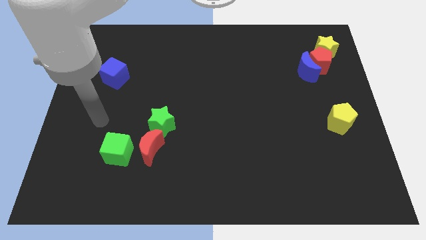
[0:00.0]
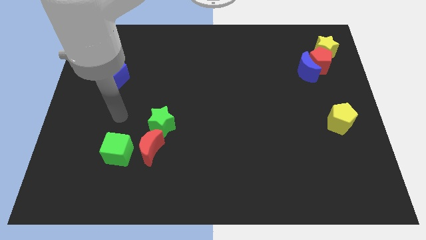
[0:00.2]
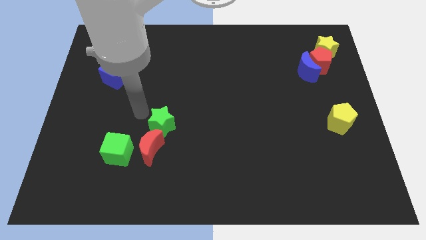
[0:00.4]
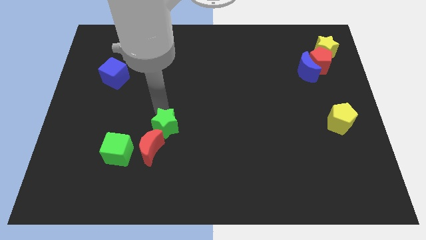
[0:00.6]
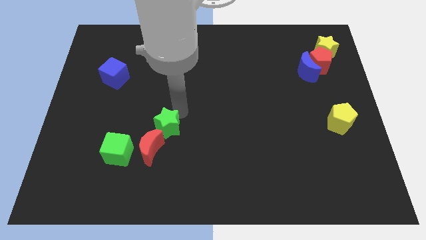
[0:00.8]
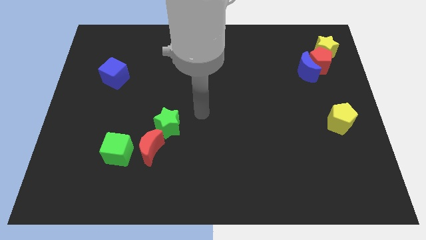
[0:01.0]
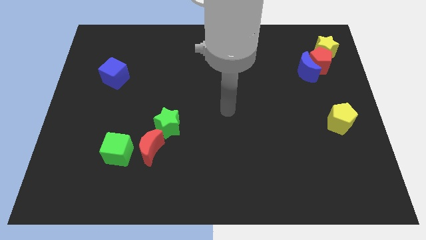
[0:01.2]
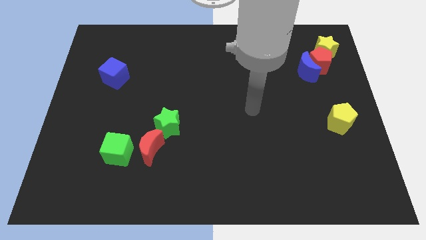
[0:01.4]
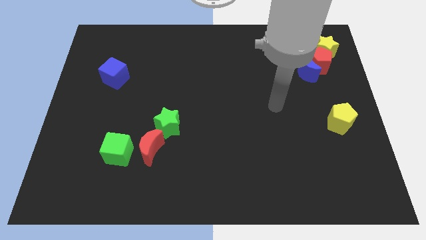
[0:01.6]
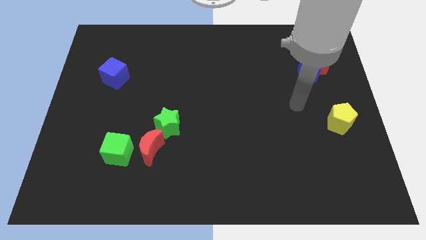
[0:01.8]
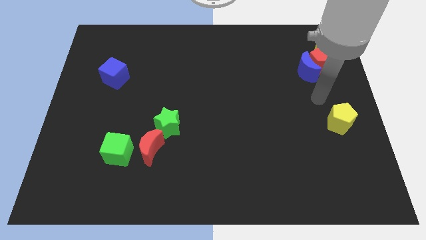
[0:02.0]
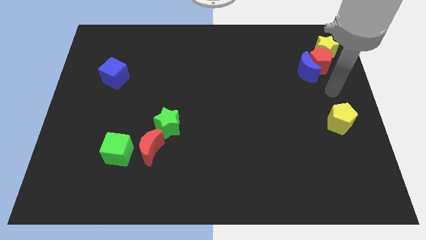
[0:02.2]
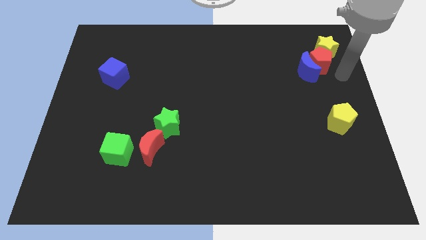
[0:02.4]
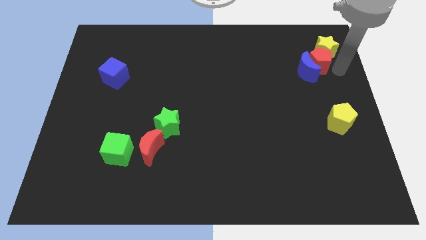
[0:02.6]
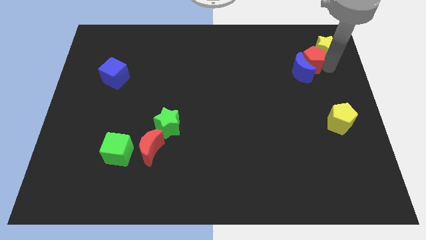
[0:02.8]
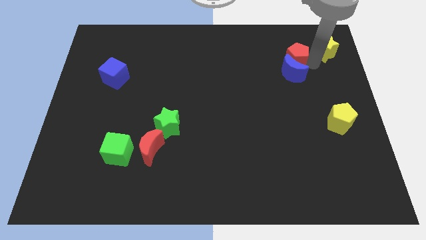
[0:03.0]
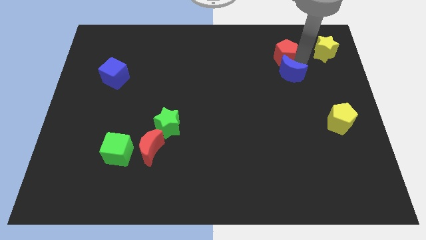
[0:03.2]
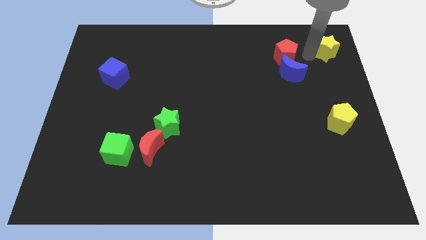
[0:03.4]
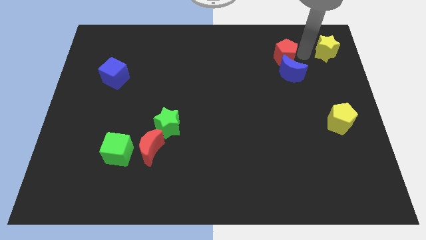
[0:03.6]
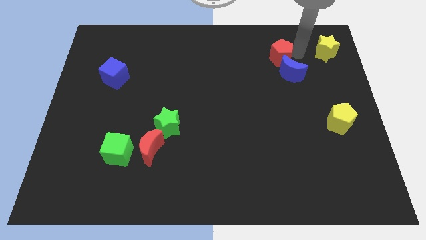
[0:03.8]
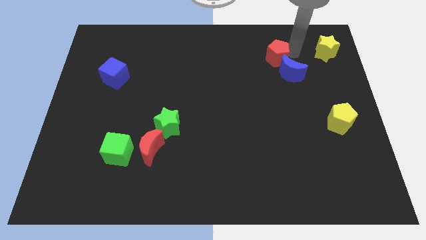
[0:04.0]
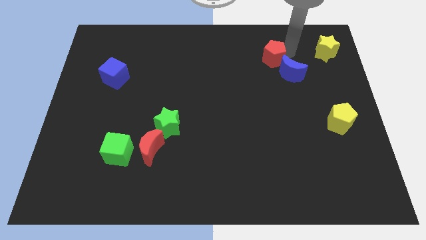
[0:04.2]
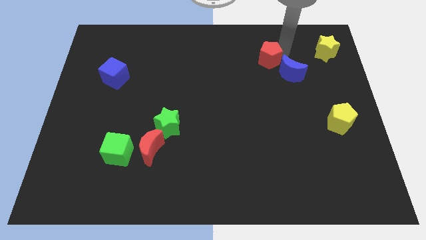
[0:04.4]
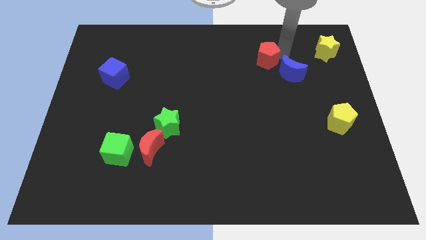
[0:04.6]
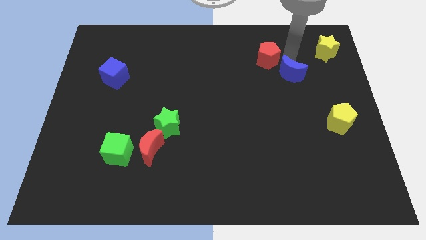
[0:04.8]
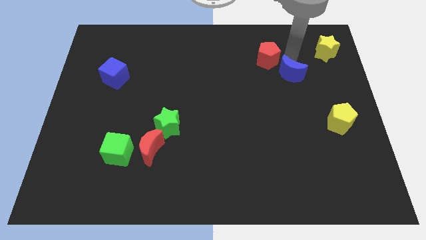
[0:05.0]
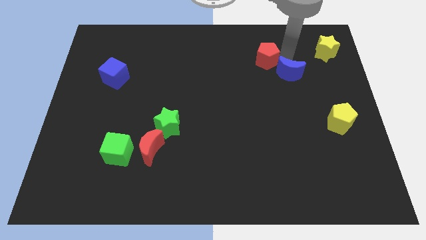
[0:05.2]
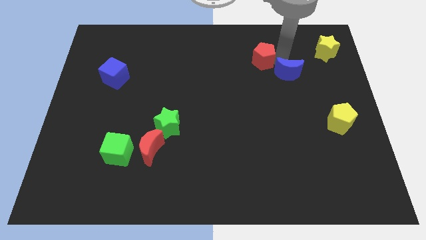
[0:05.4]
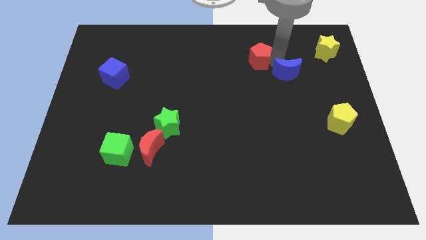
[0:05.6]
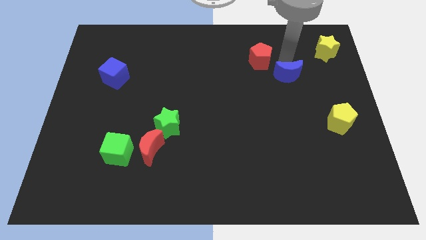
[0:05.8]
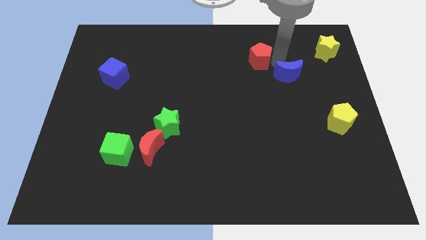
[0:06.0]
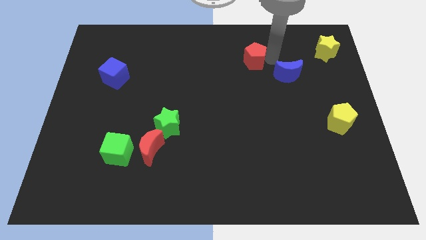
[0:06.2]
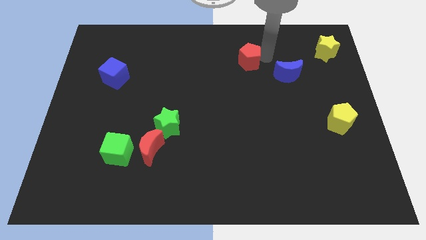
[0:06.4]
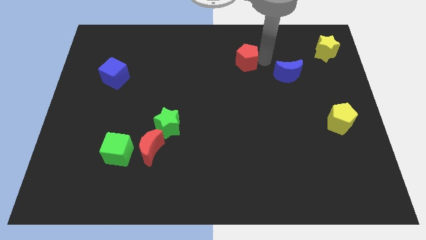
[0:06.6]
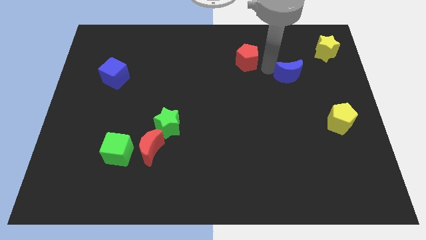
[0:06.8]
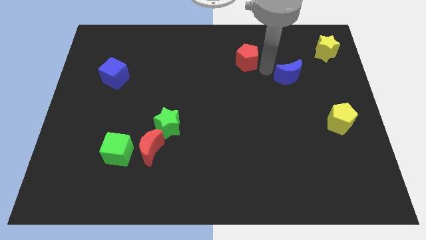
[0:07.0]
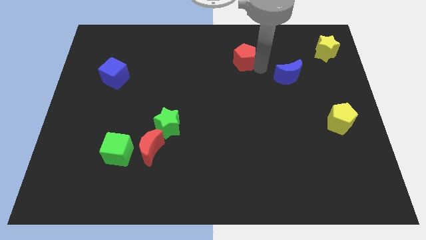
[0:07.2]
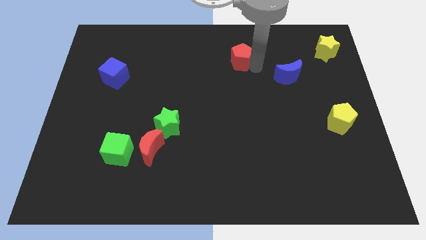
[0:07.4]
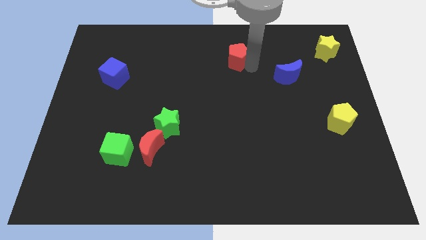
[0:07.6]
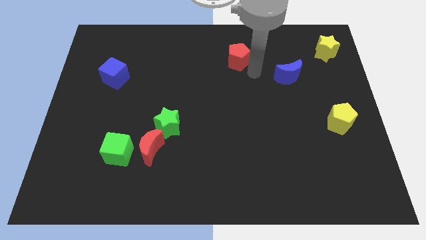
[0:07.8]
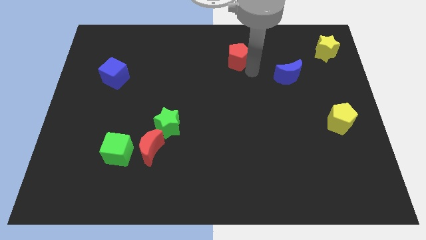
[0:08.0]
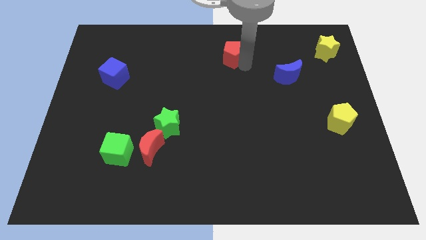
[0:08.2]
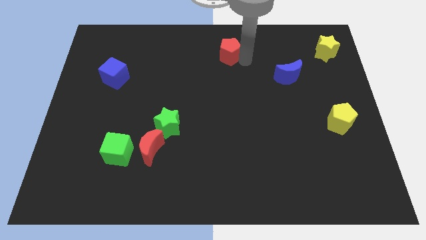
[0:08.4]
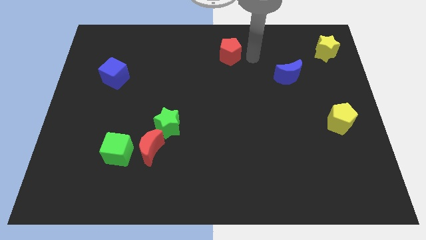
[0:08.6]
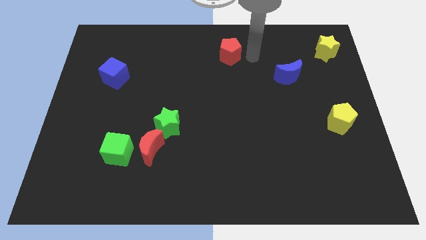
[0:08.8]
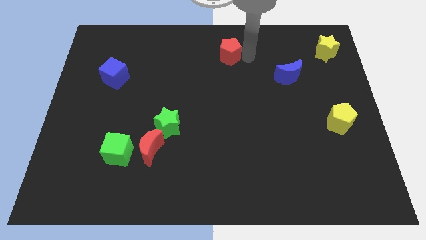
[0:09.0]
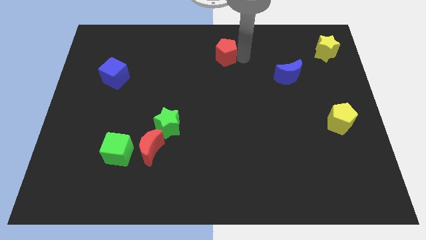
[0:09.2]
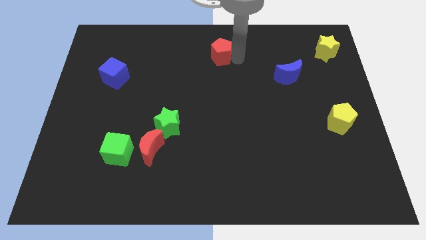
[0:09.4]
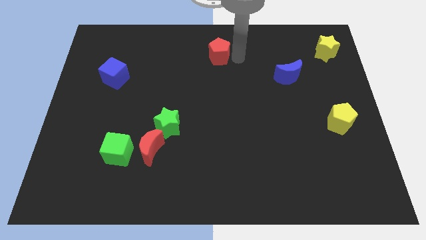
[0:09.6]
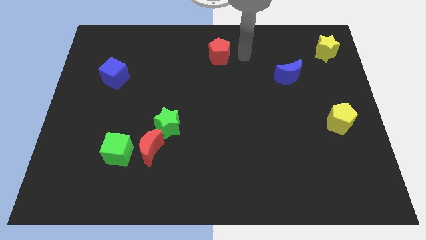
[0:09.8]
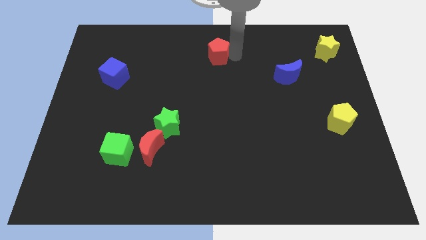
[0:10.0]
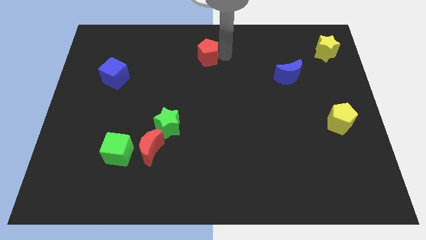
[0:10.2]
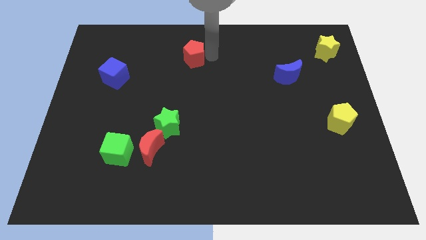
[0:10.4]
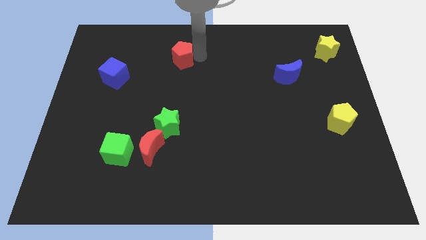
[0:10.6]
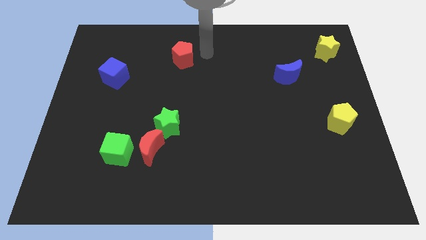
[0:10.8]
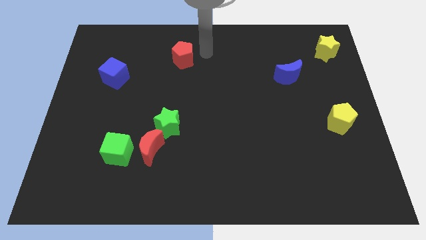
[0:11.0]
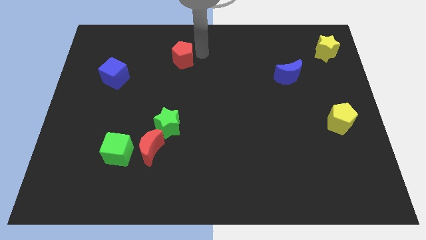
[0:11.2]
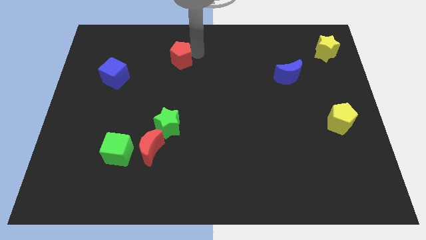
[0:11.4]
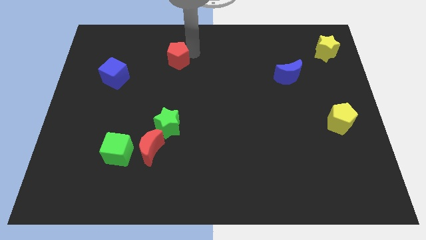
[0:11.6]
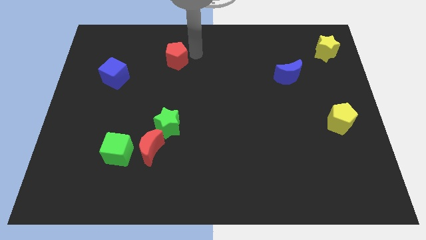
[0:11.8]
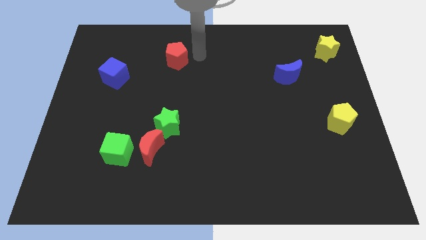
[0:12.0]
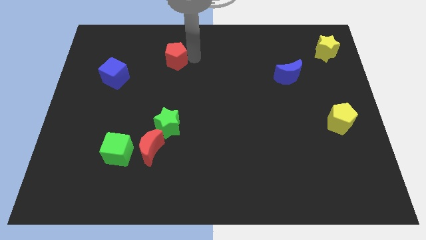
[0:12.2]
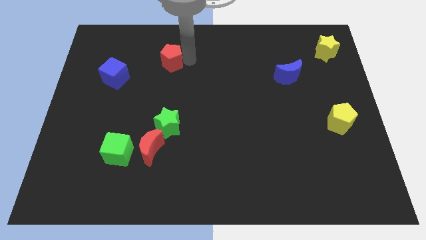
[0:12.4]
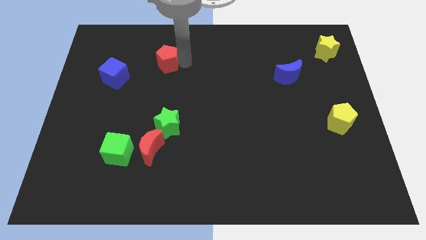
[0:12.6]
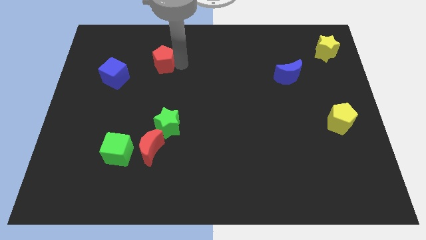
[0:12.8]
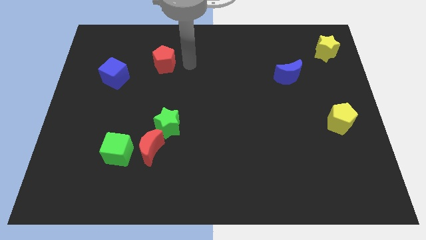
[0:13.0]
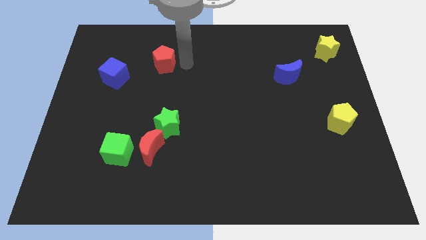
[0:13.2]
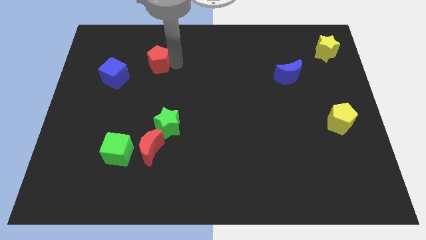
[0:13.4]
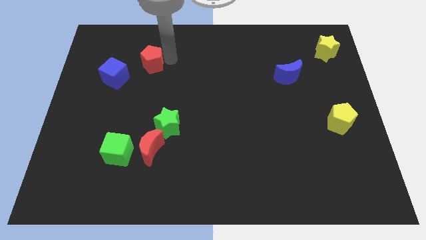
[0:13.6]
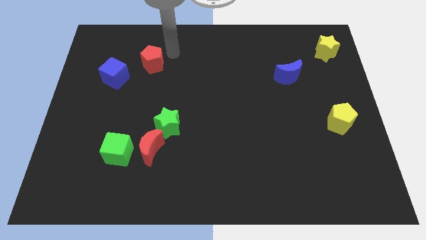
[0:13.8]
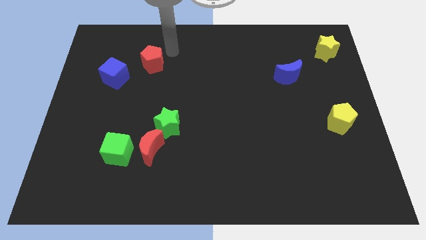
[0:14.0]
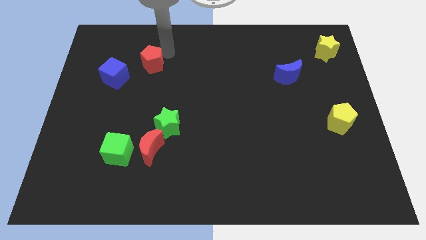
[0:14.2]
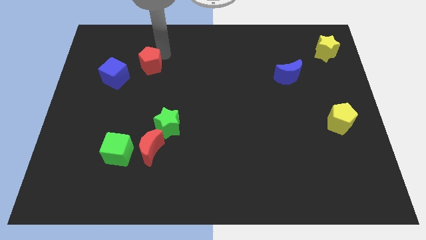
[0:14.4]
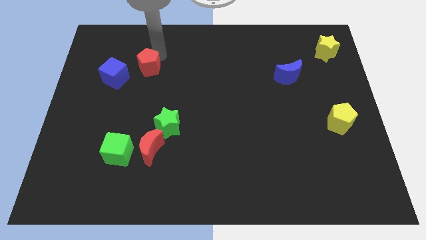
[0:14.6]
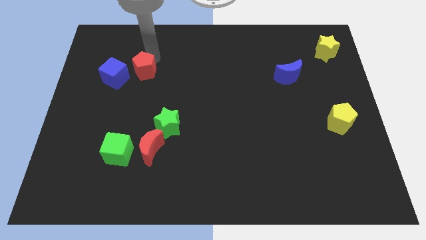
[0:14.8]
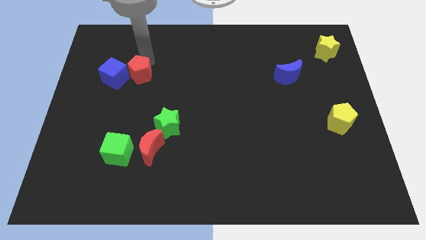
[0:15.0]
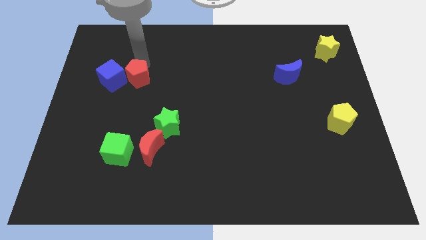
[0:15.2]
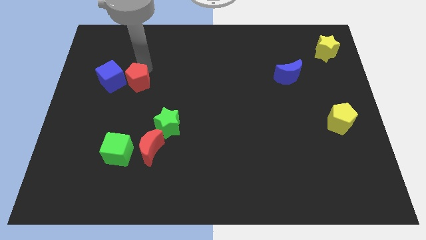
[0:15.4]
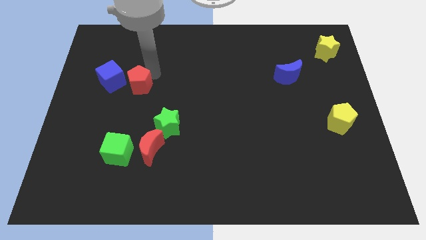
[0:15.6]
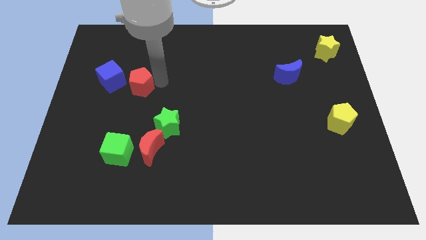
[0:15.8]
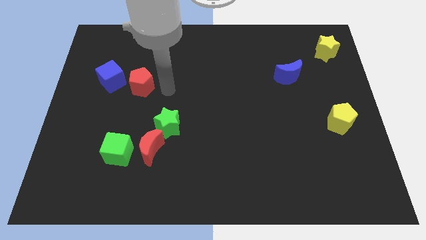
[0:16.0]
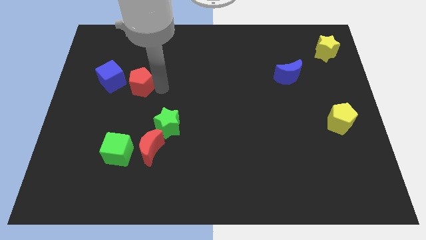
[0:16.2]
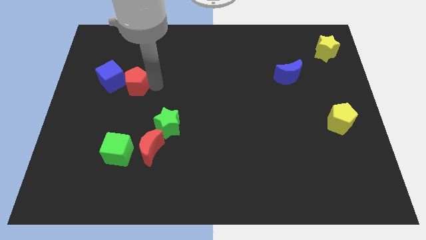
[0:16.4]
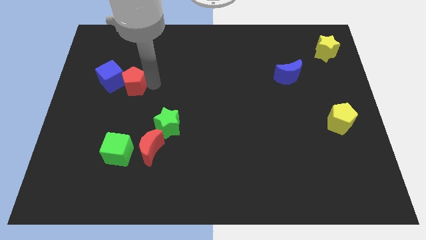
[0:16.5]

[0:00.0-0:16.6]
slide the red pentagon close to the blue cube
